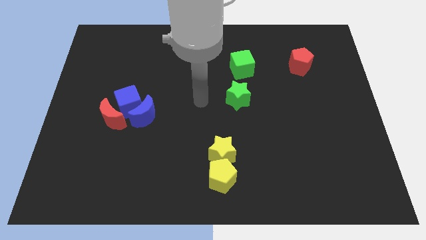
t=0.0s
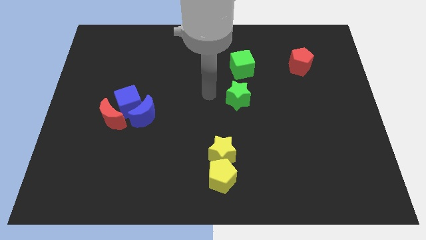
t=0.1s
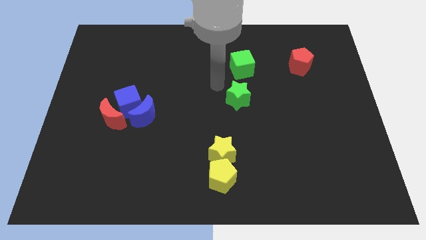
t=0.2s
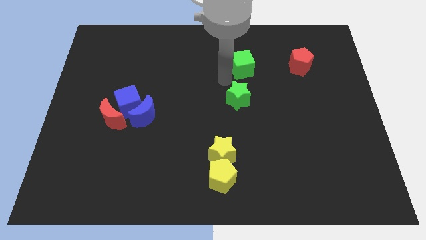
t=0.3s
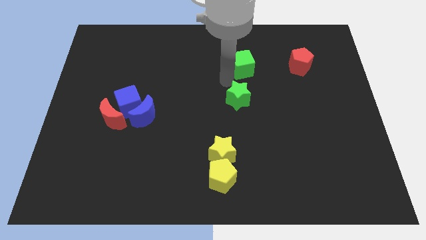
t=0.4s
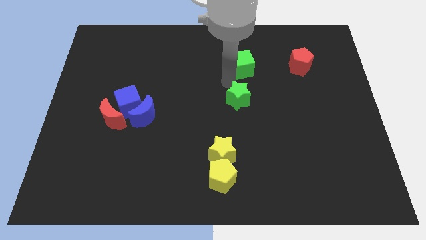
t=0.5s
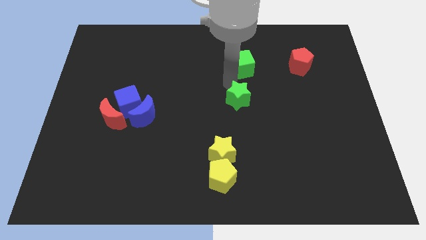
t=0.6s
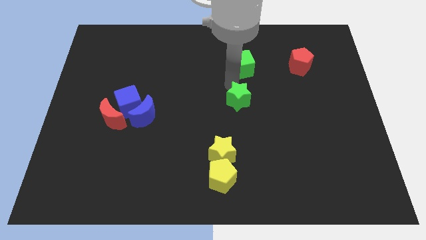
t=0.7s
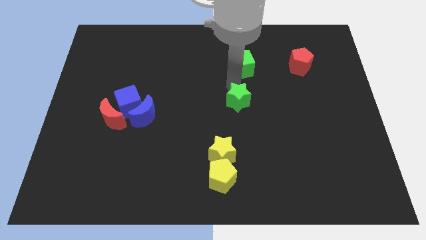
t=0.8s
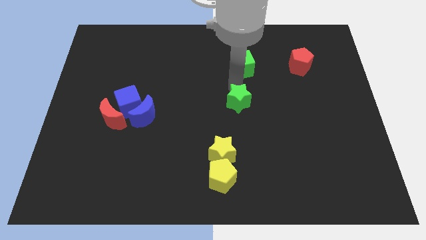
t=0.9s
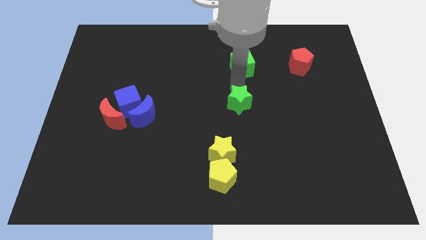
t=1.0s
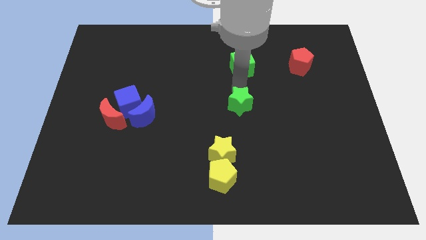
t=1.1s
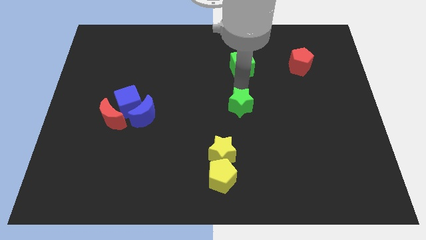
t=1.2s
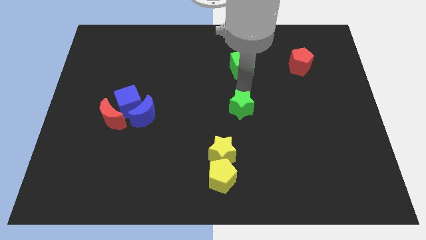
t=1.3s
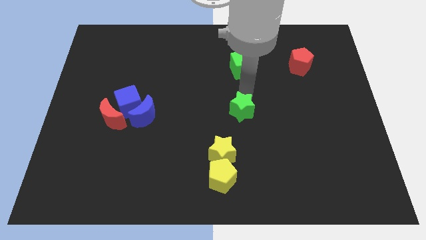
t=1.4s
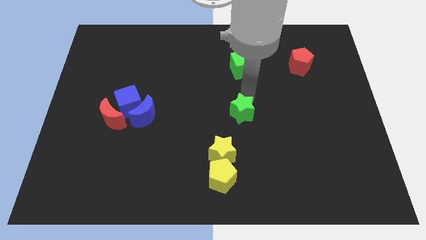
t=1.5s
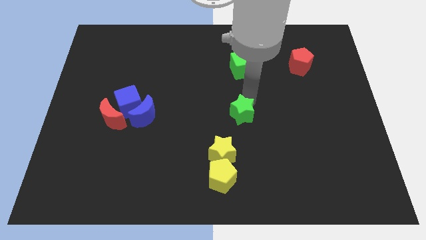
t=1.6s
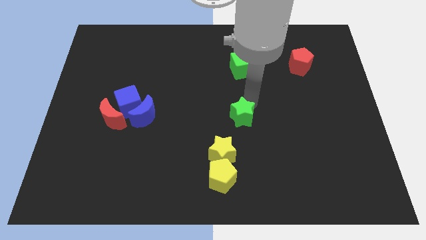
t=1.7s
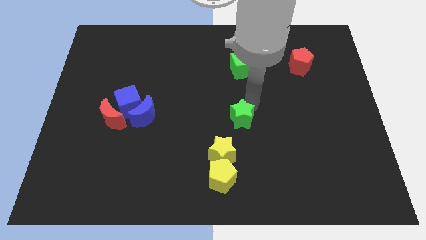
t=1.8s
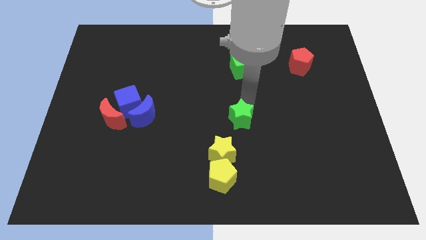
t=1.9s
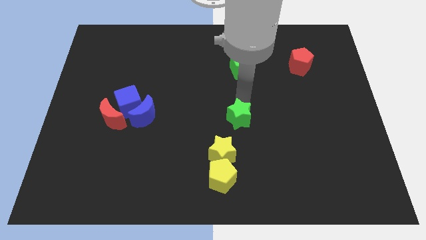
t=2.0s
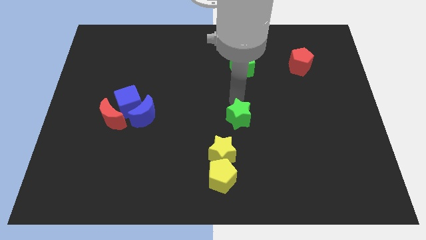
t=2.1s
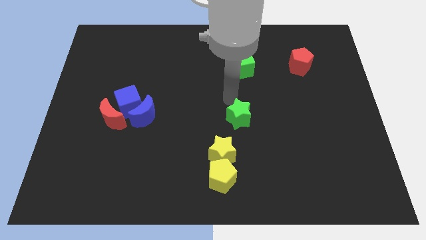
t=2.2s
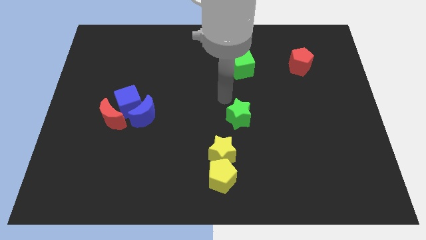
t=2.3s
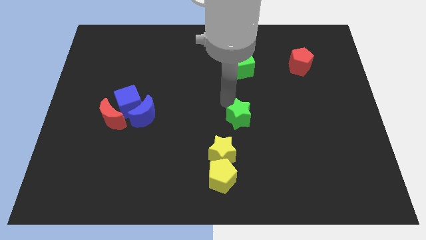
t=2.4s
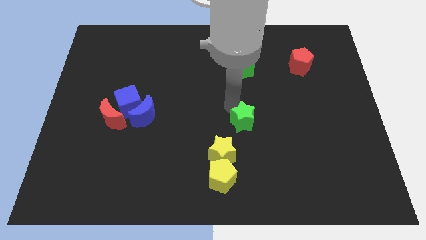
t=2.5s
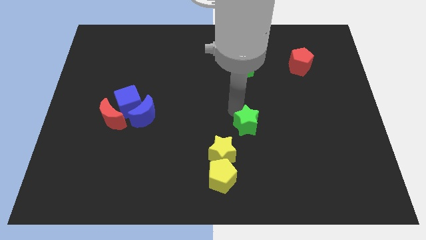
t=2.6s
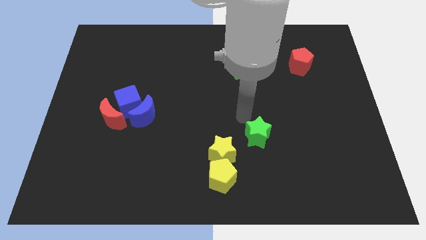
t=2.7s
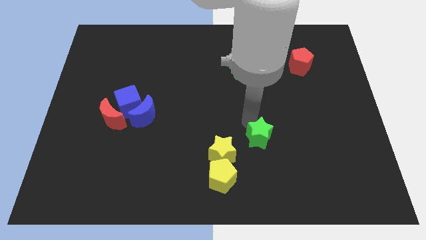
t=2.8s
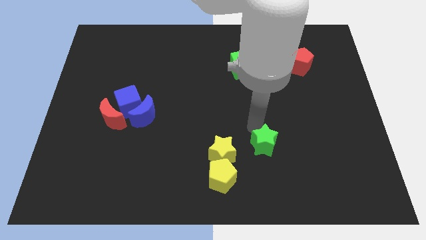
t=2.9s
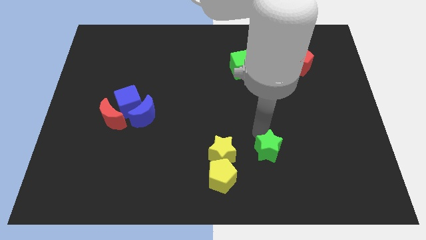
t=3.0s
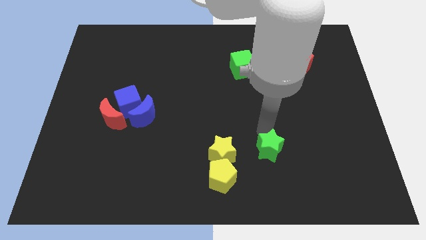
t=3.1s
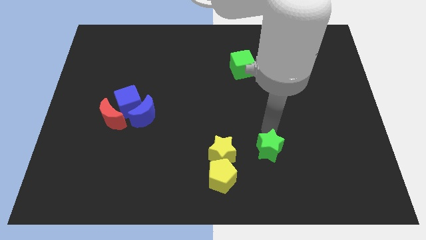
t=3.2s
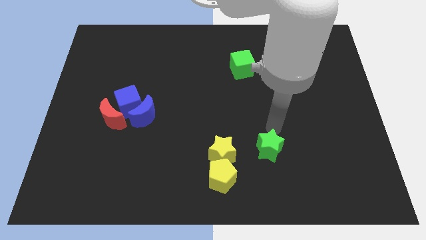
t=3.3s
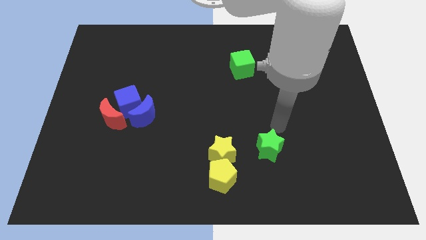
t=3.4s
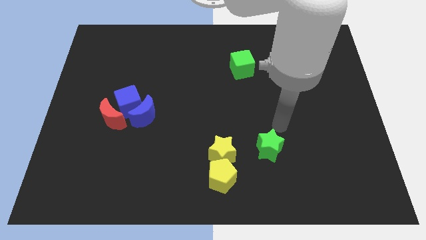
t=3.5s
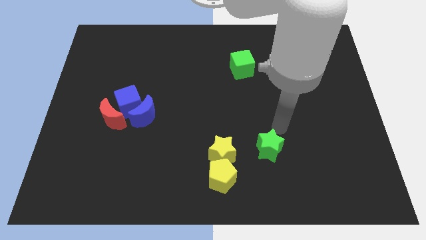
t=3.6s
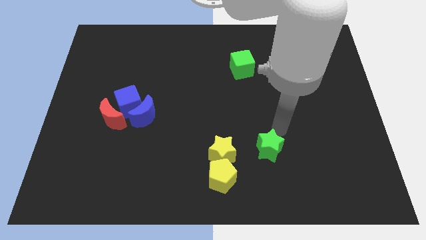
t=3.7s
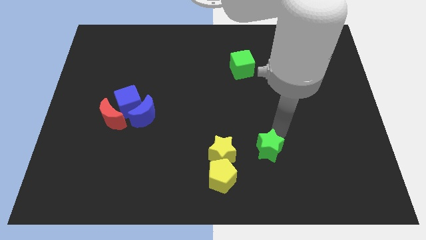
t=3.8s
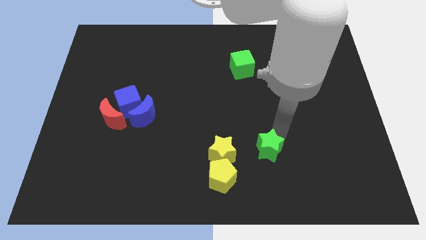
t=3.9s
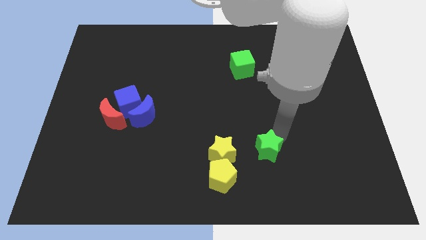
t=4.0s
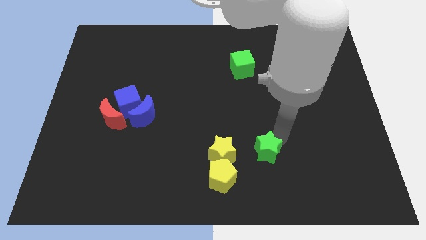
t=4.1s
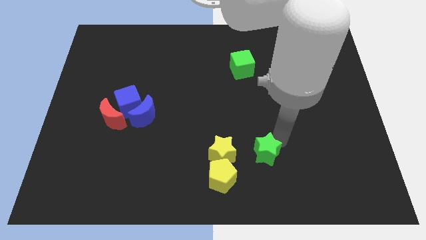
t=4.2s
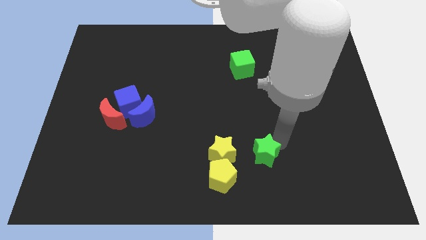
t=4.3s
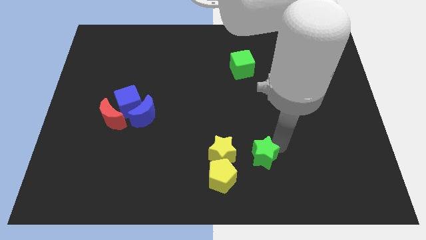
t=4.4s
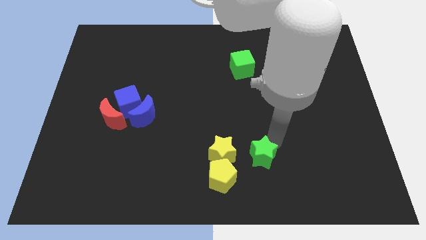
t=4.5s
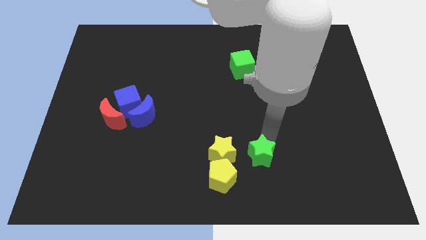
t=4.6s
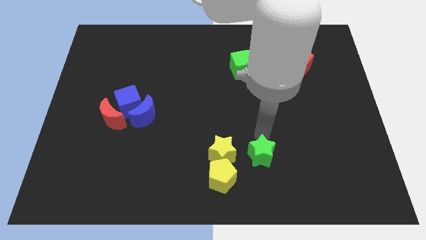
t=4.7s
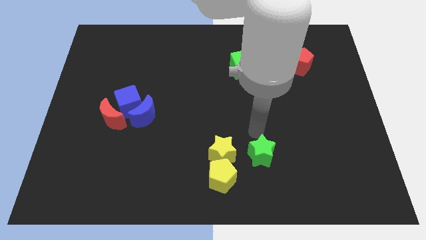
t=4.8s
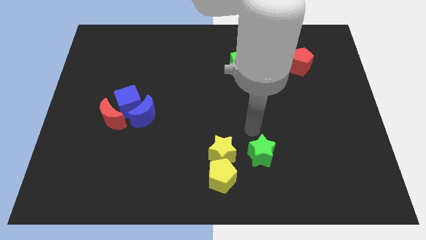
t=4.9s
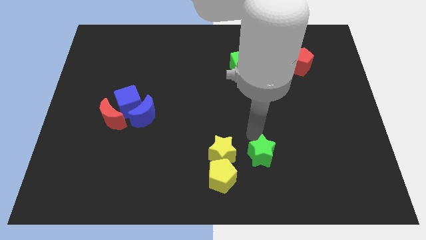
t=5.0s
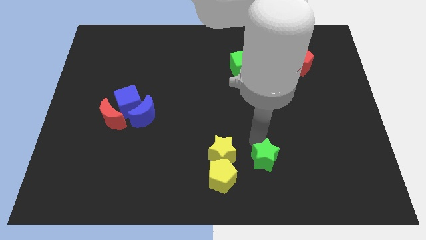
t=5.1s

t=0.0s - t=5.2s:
put the green star just right of the yellow pentagon

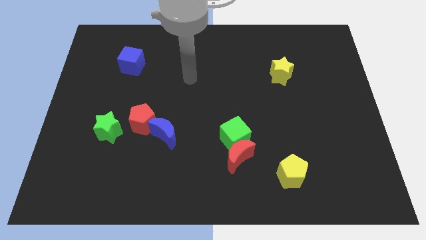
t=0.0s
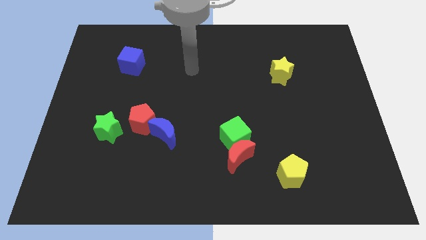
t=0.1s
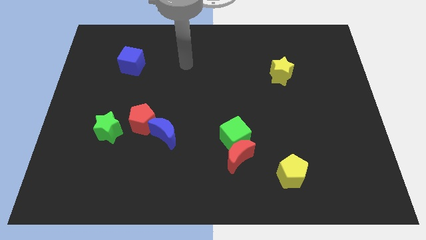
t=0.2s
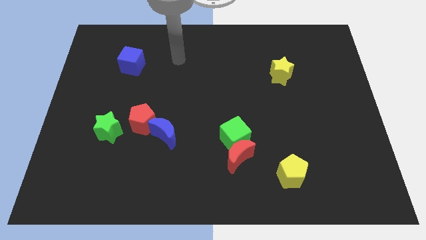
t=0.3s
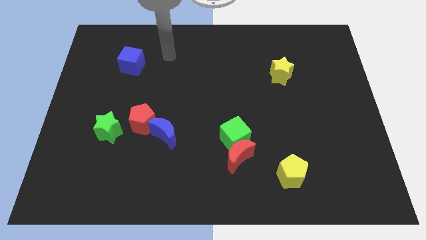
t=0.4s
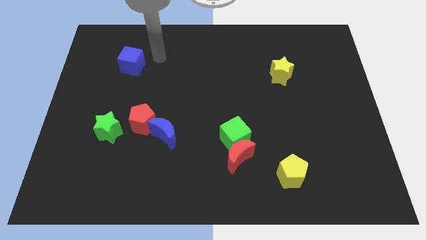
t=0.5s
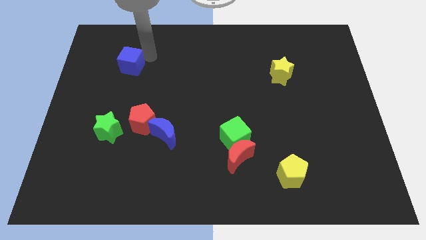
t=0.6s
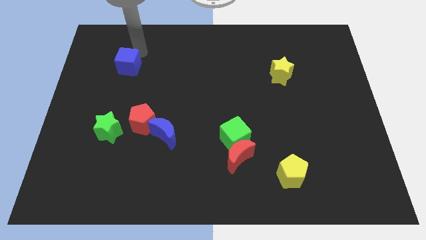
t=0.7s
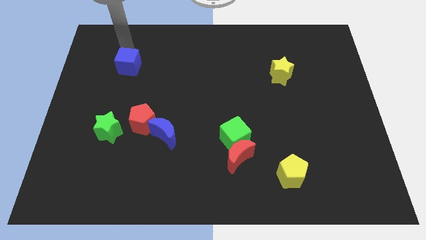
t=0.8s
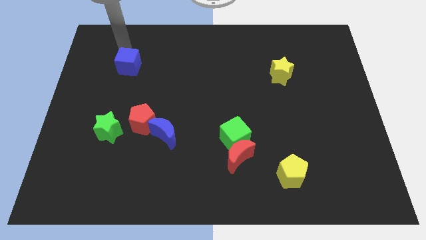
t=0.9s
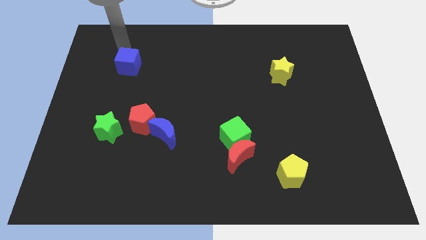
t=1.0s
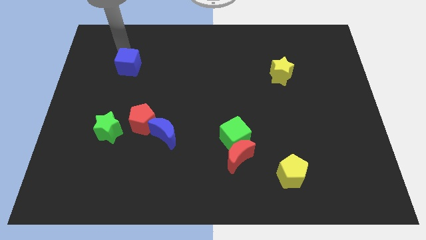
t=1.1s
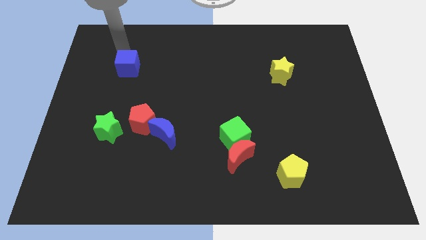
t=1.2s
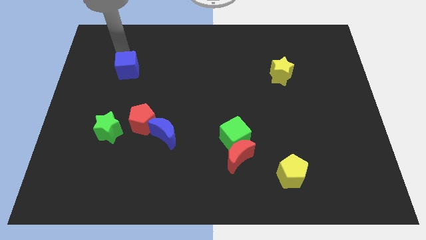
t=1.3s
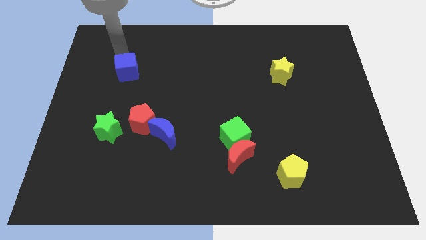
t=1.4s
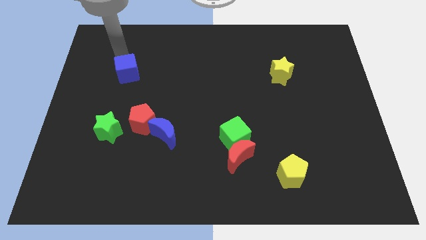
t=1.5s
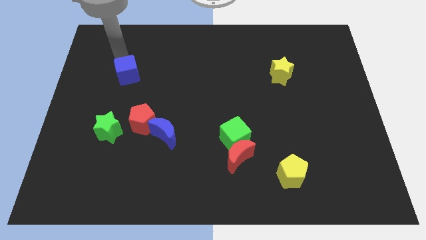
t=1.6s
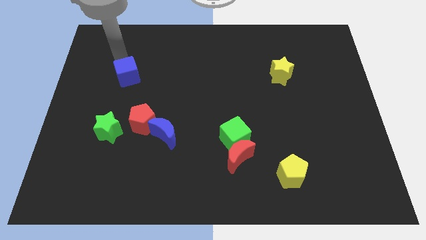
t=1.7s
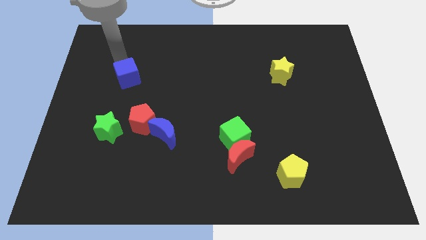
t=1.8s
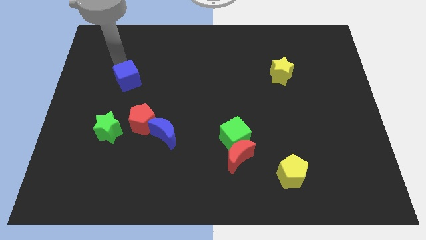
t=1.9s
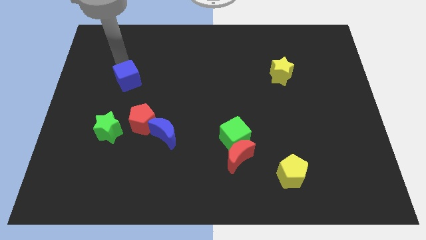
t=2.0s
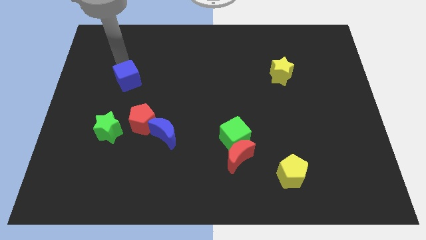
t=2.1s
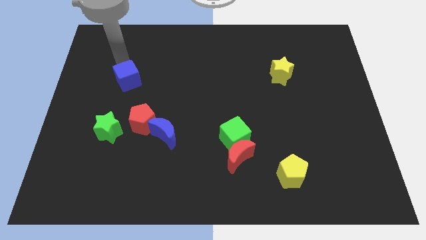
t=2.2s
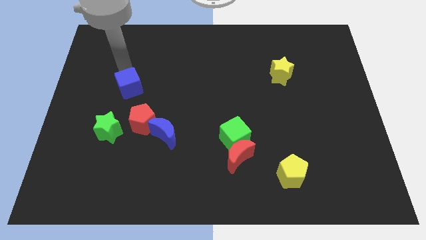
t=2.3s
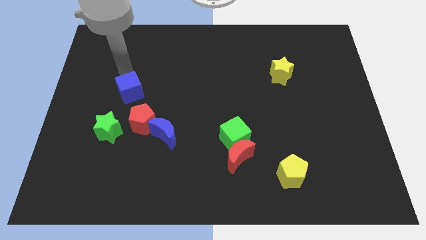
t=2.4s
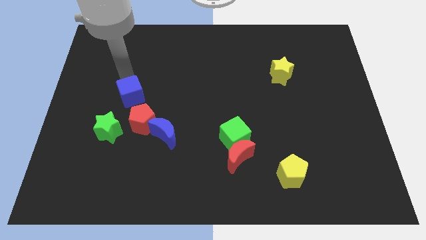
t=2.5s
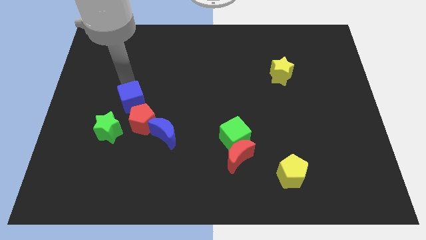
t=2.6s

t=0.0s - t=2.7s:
slide the blue cube to the top left side of the blue moon
